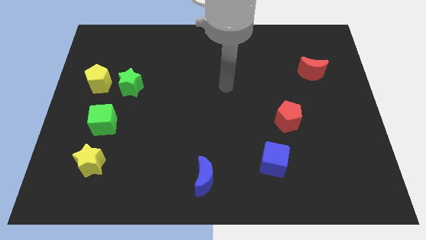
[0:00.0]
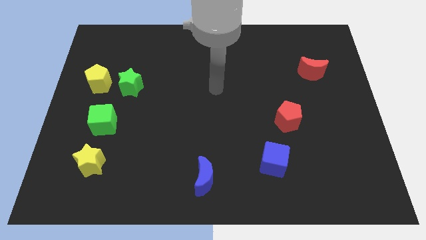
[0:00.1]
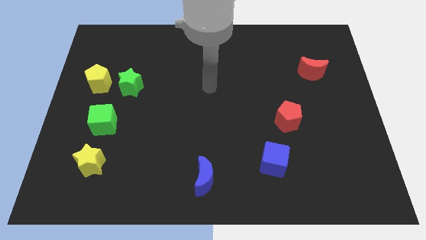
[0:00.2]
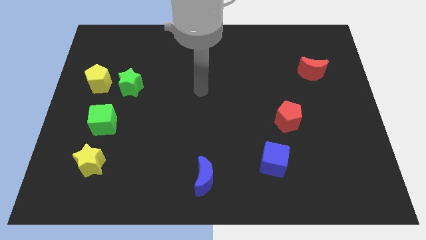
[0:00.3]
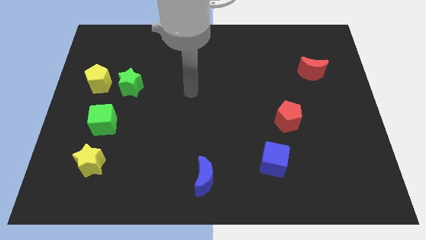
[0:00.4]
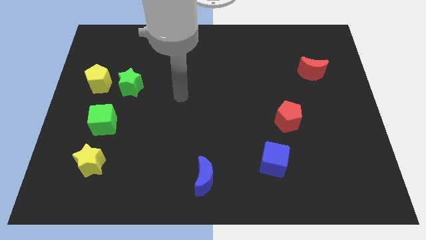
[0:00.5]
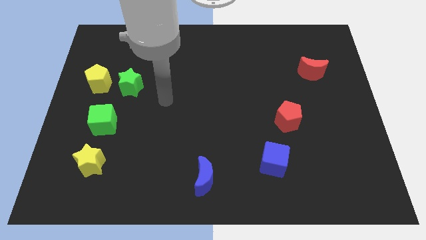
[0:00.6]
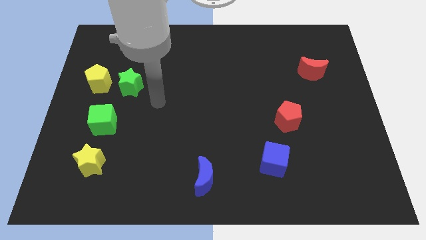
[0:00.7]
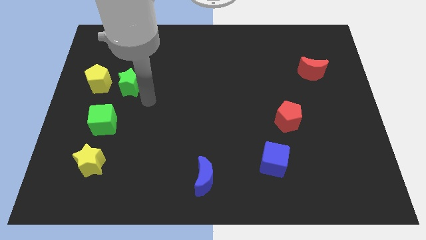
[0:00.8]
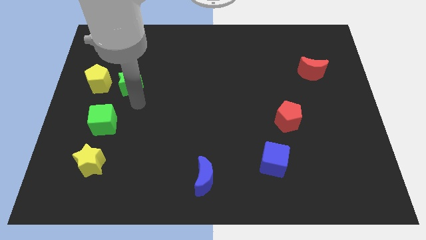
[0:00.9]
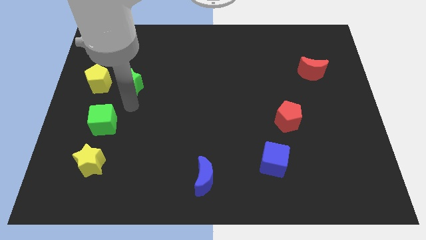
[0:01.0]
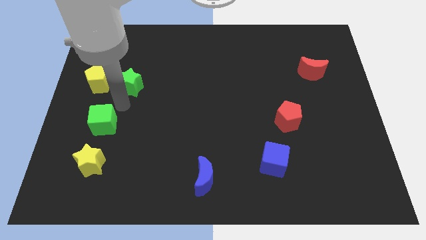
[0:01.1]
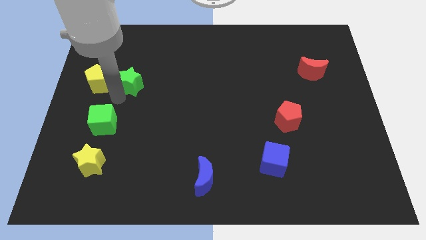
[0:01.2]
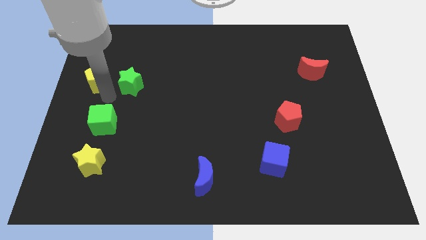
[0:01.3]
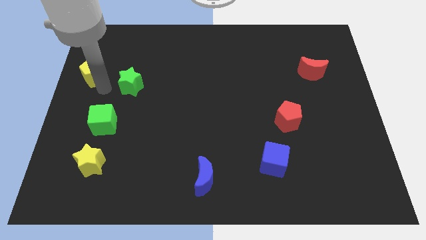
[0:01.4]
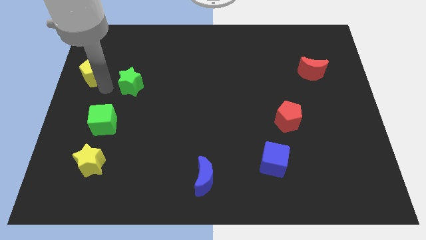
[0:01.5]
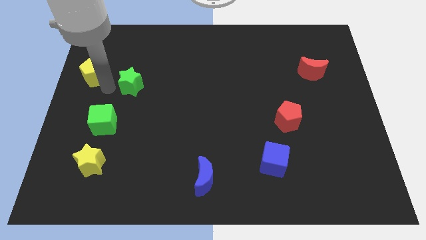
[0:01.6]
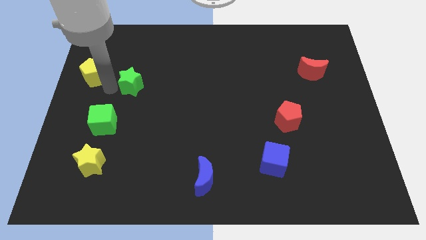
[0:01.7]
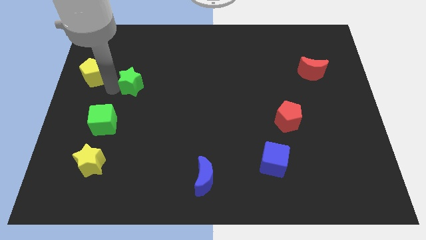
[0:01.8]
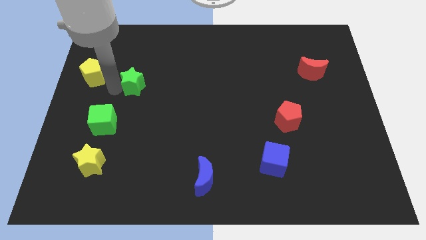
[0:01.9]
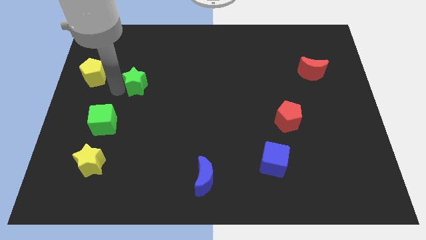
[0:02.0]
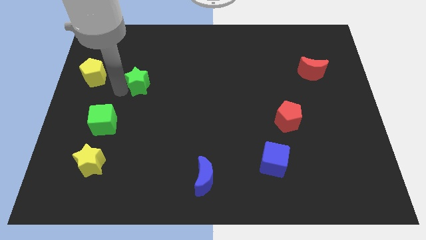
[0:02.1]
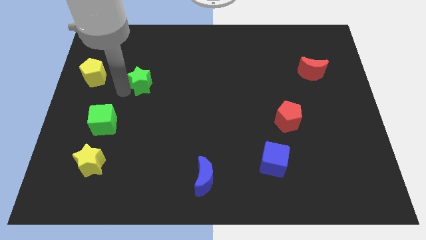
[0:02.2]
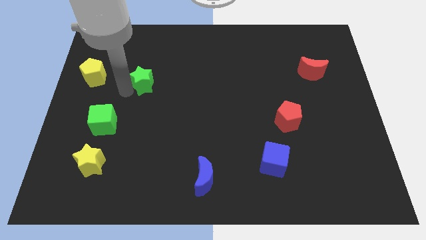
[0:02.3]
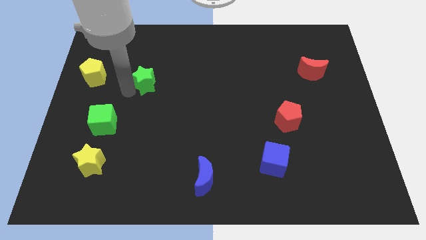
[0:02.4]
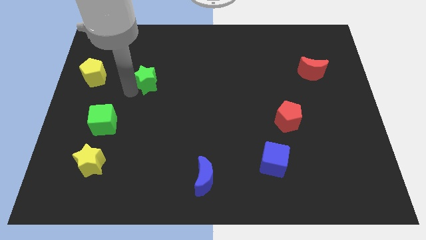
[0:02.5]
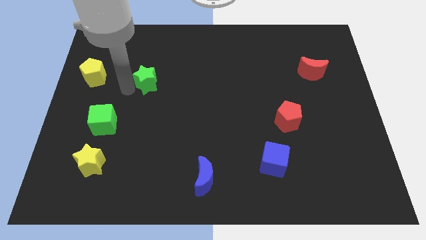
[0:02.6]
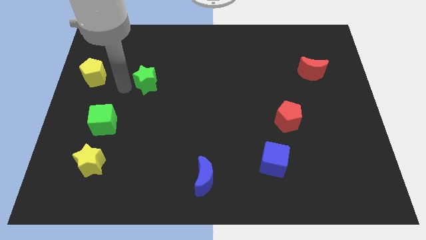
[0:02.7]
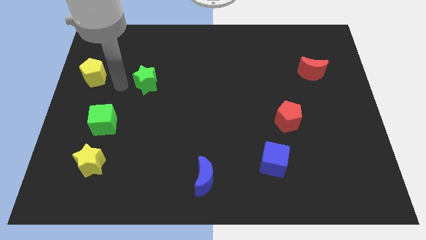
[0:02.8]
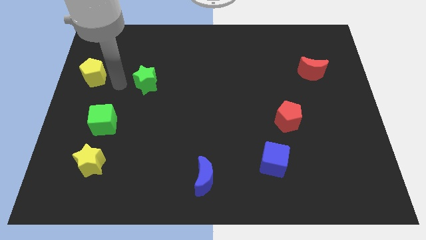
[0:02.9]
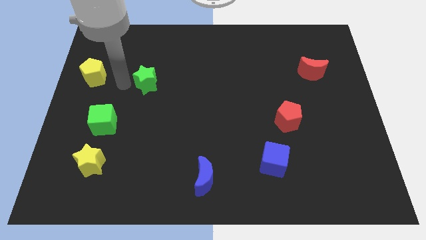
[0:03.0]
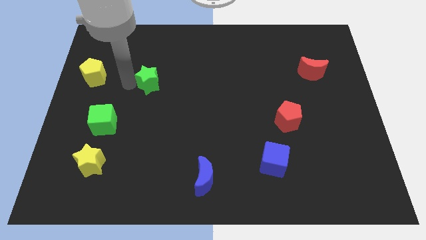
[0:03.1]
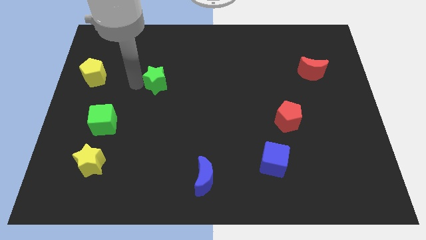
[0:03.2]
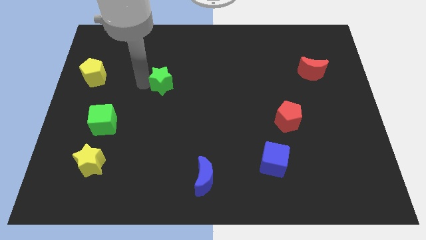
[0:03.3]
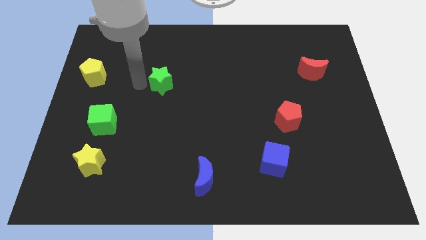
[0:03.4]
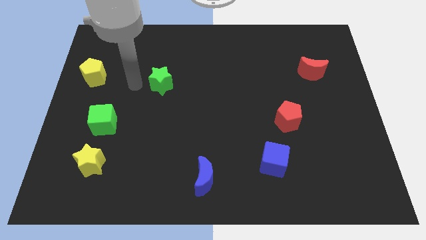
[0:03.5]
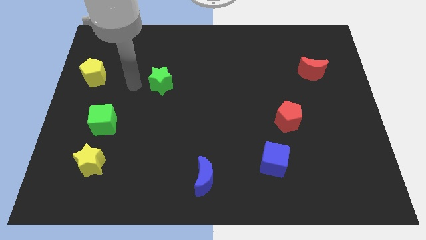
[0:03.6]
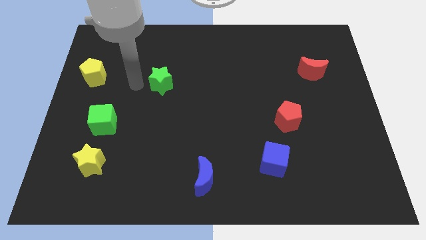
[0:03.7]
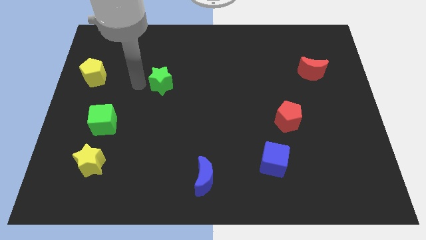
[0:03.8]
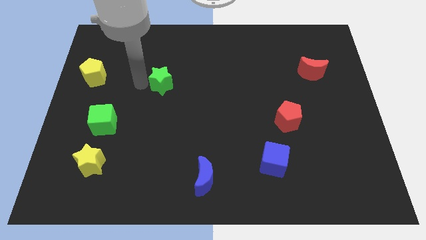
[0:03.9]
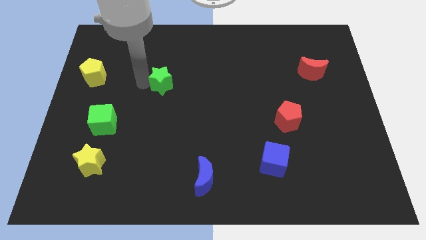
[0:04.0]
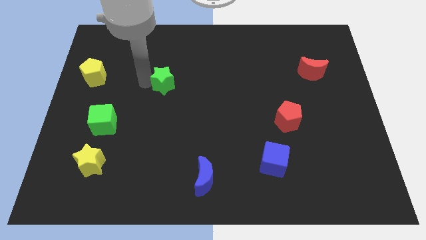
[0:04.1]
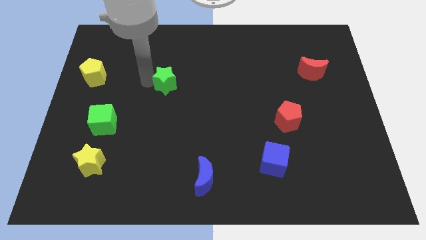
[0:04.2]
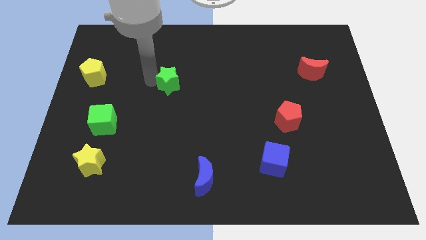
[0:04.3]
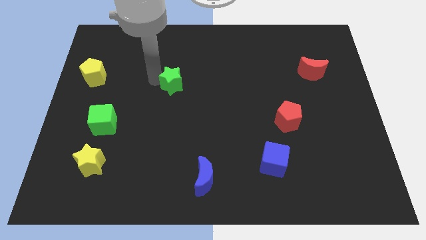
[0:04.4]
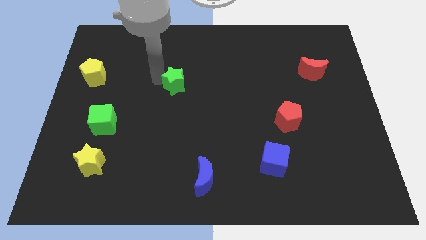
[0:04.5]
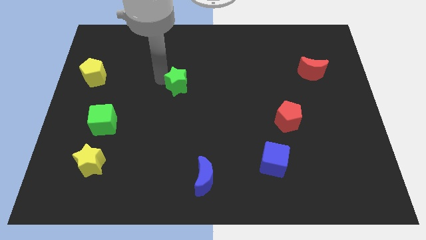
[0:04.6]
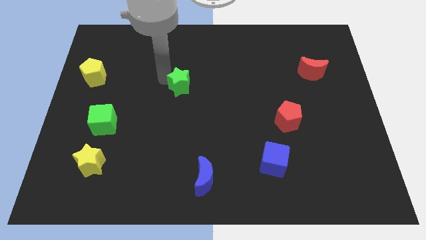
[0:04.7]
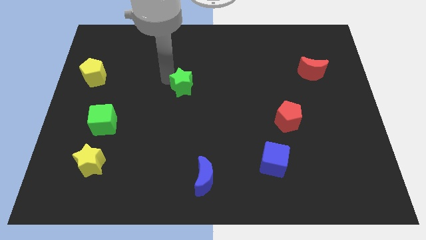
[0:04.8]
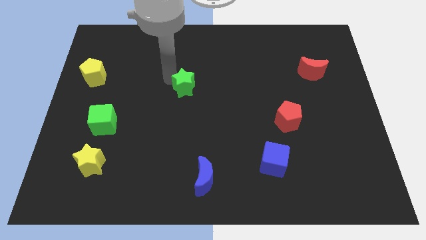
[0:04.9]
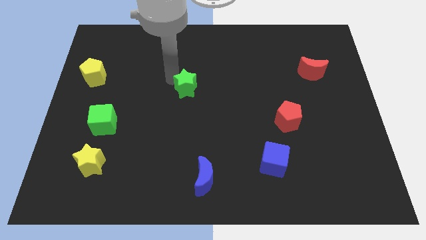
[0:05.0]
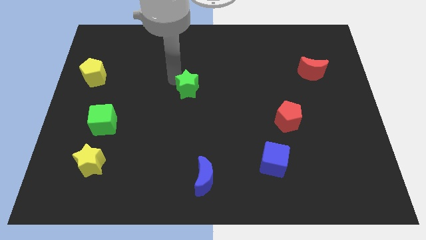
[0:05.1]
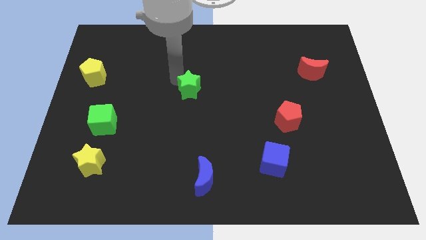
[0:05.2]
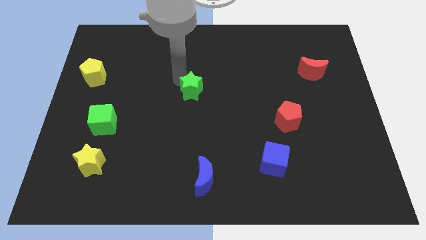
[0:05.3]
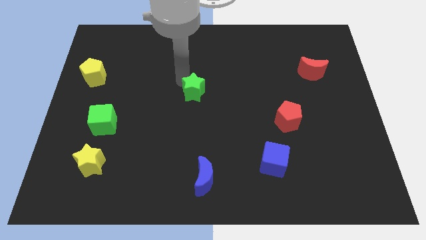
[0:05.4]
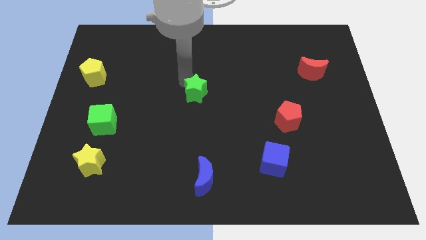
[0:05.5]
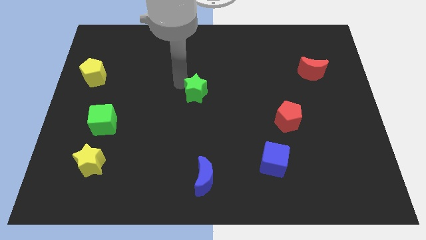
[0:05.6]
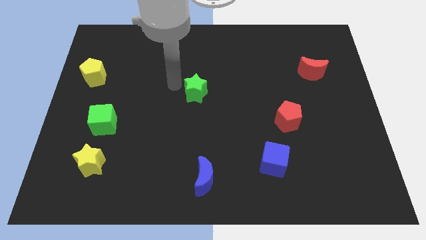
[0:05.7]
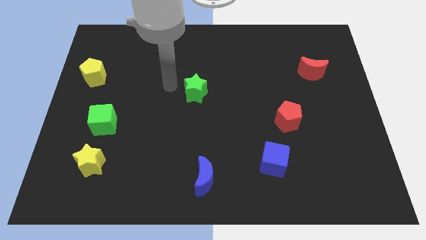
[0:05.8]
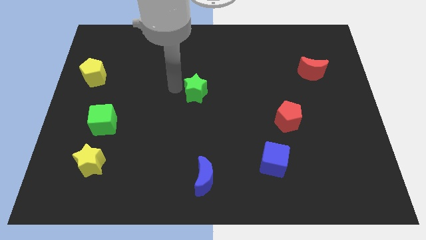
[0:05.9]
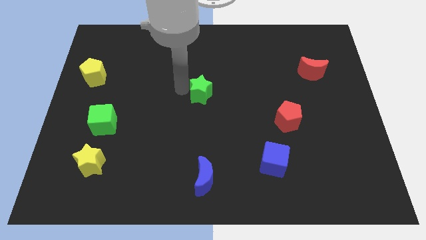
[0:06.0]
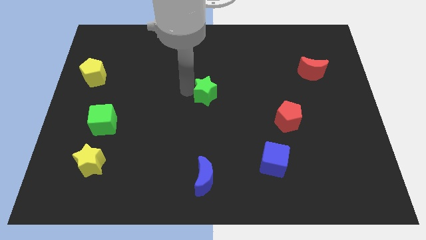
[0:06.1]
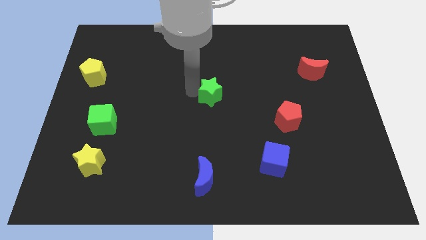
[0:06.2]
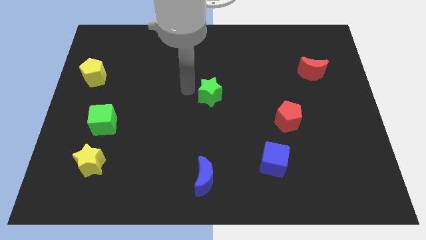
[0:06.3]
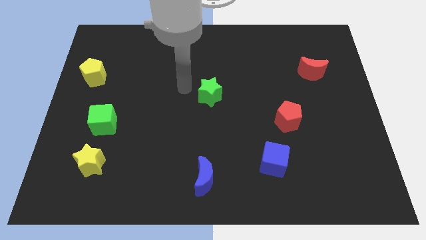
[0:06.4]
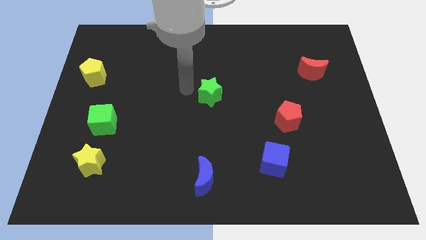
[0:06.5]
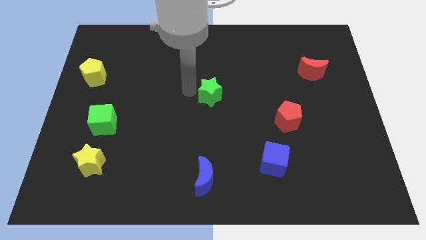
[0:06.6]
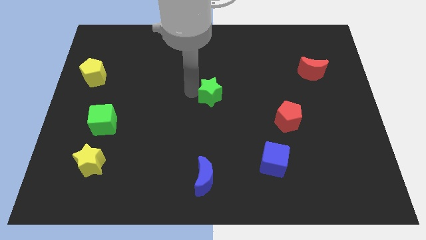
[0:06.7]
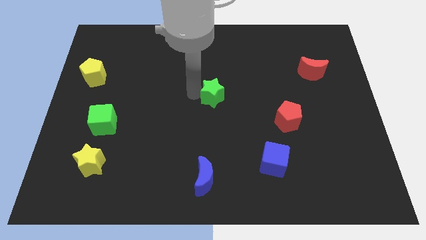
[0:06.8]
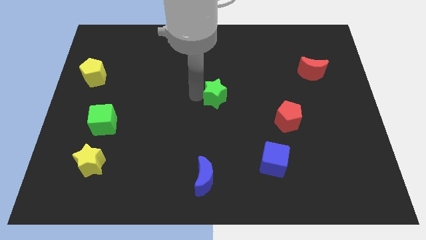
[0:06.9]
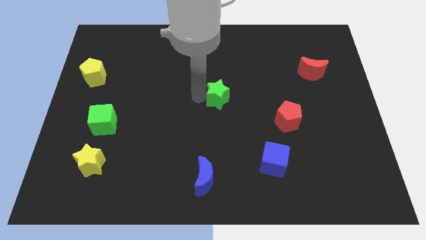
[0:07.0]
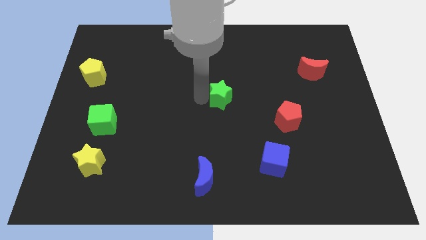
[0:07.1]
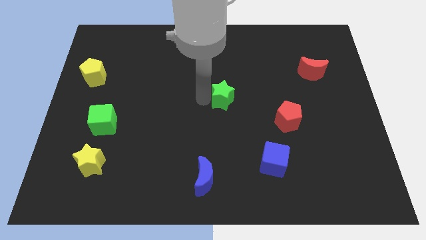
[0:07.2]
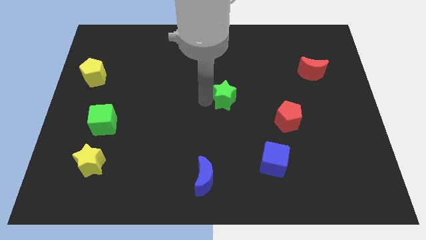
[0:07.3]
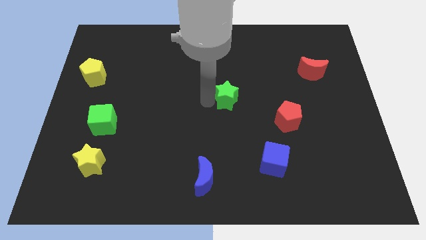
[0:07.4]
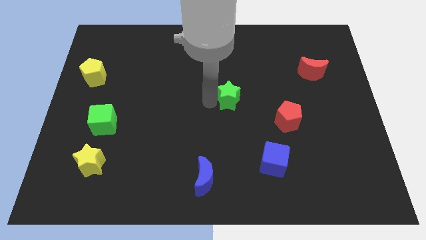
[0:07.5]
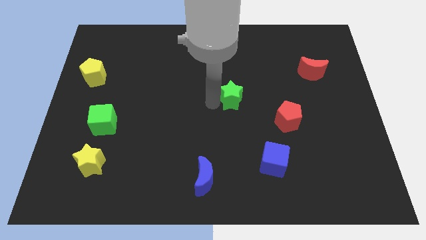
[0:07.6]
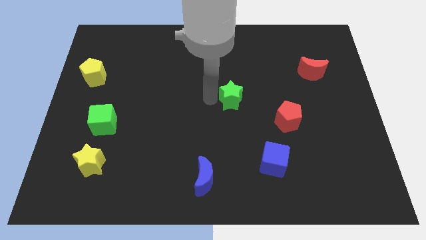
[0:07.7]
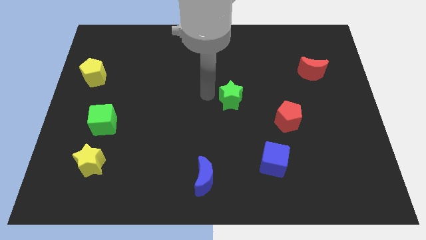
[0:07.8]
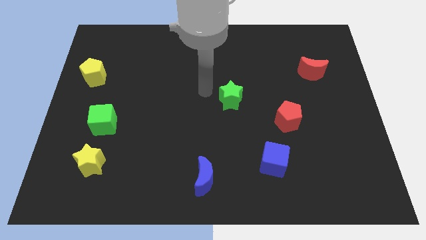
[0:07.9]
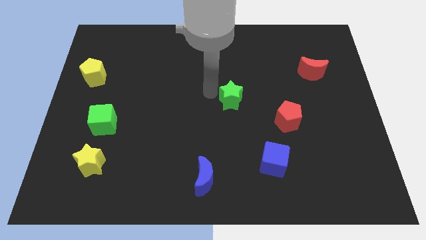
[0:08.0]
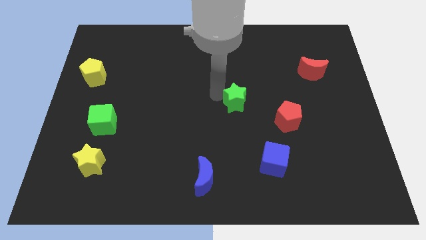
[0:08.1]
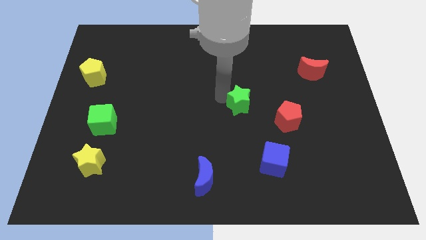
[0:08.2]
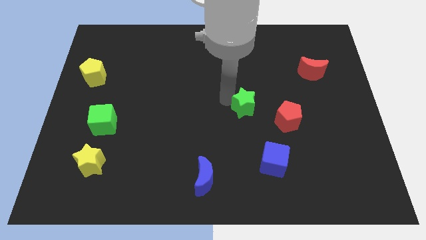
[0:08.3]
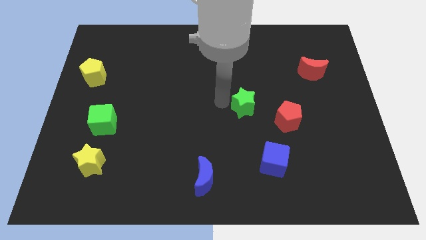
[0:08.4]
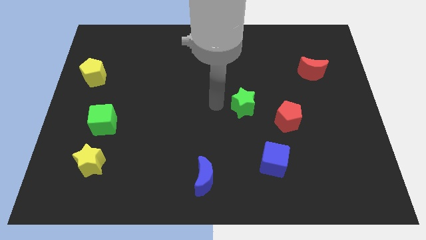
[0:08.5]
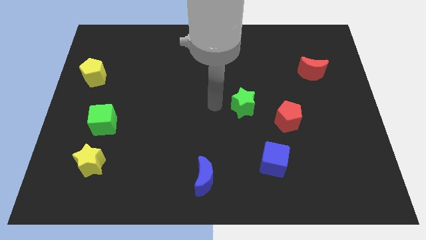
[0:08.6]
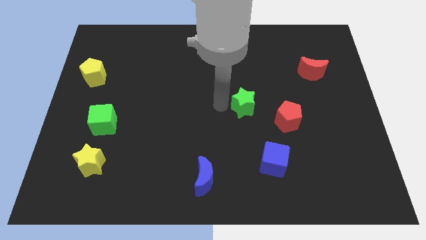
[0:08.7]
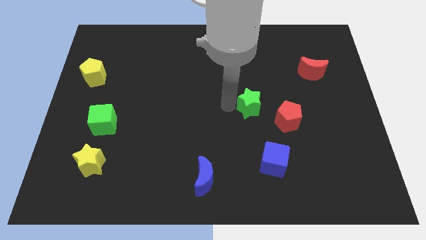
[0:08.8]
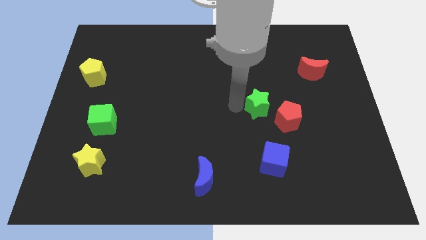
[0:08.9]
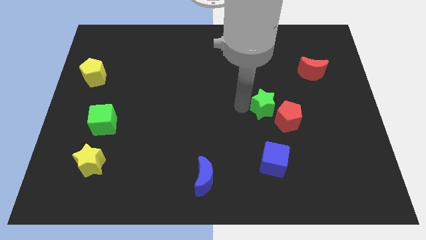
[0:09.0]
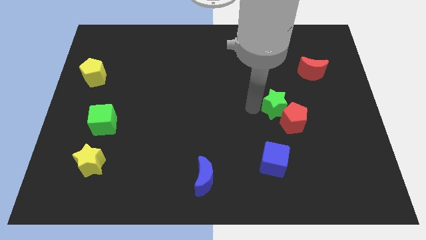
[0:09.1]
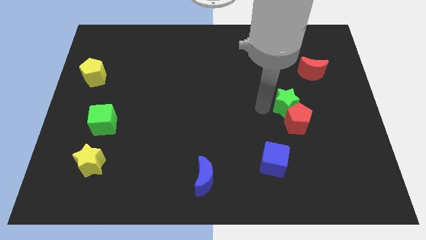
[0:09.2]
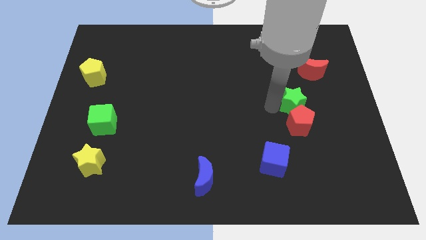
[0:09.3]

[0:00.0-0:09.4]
put the green star to the top right side of the red pentagon
